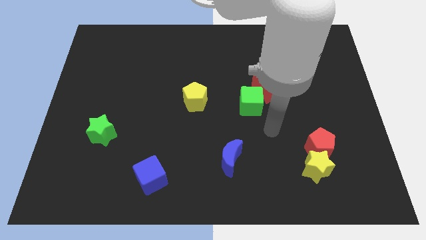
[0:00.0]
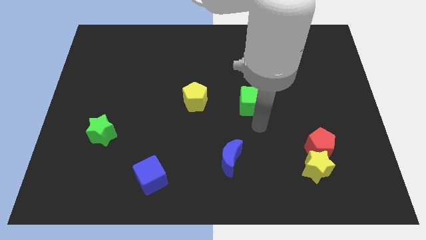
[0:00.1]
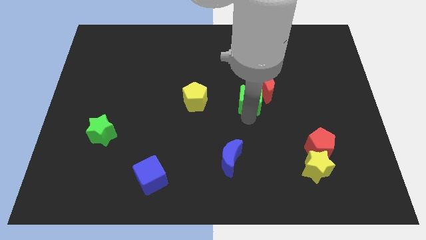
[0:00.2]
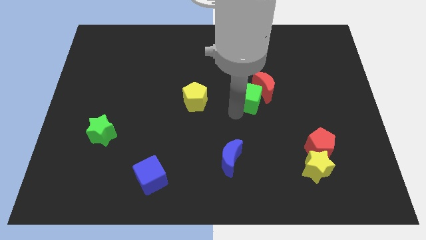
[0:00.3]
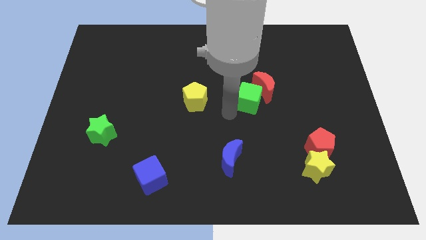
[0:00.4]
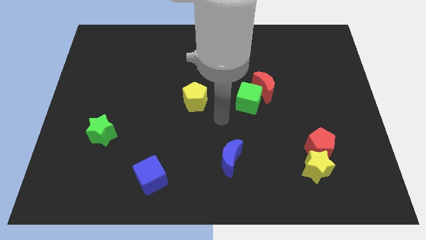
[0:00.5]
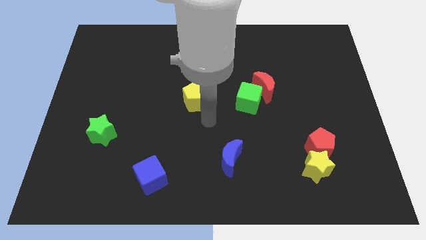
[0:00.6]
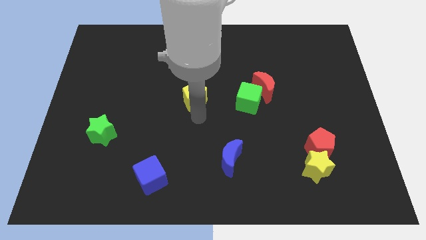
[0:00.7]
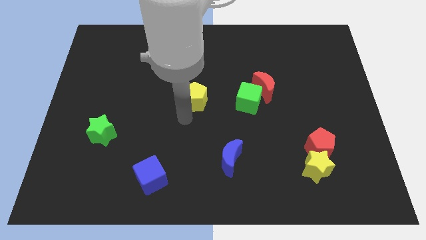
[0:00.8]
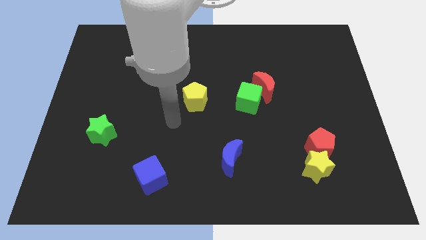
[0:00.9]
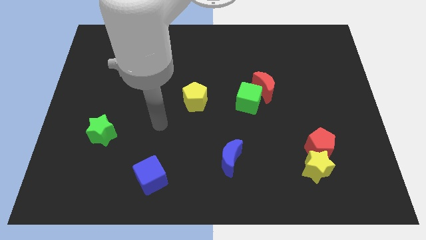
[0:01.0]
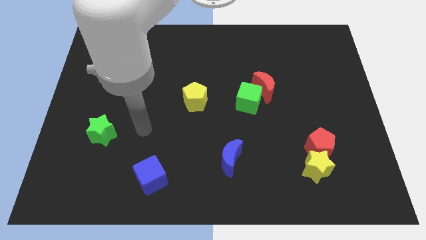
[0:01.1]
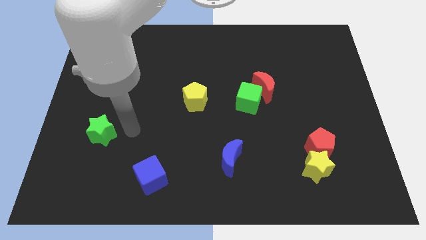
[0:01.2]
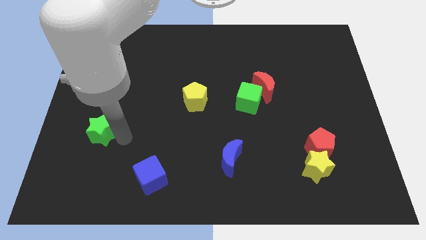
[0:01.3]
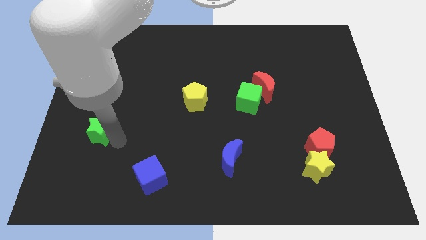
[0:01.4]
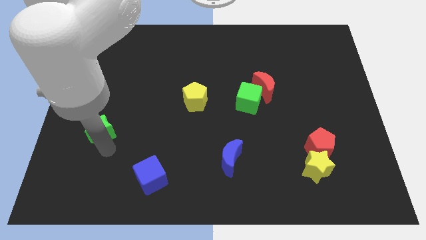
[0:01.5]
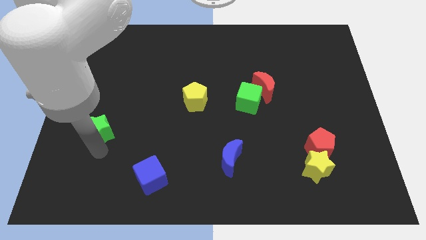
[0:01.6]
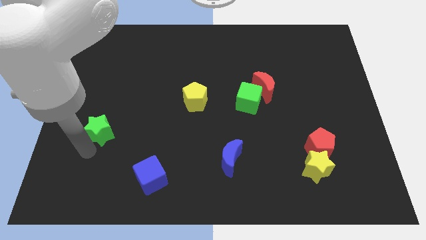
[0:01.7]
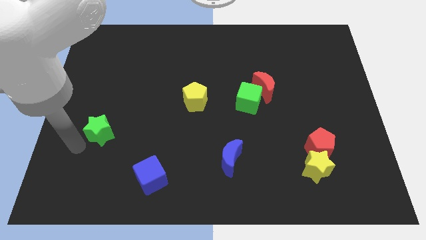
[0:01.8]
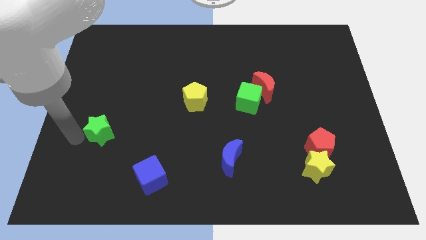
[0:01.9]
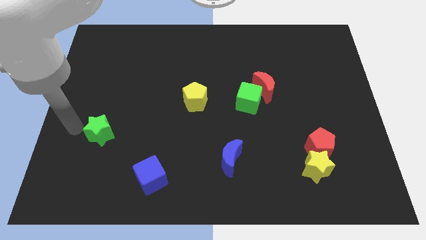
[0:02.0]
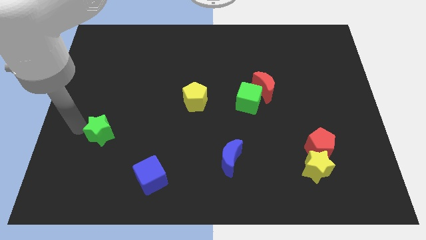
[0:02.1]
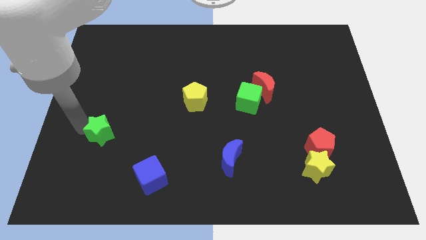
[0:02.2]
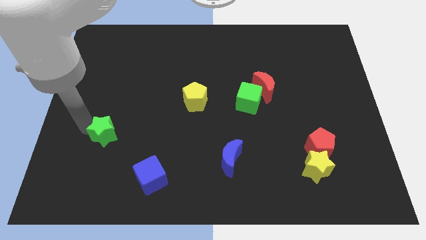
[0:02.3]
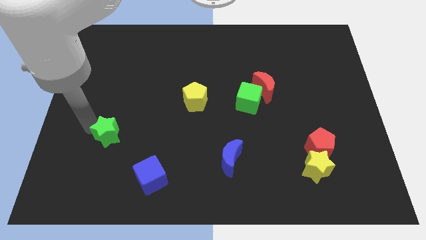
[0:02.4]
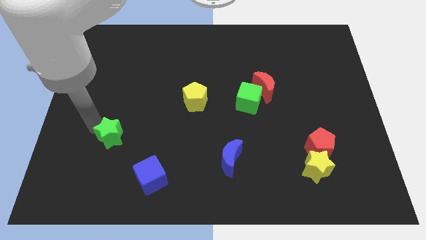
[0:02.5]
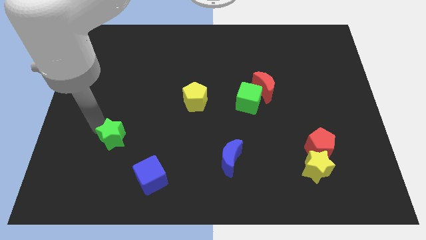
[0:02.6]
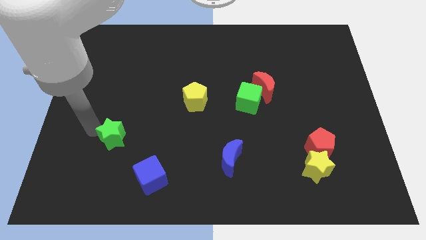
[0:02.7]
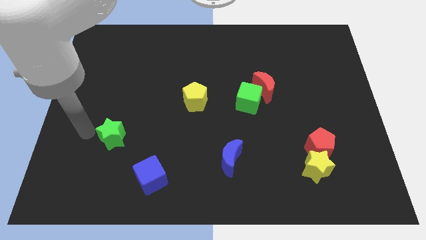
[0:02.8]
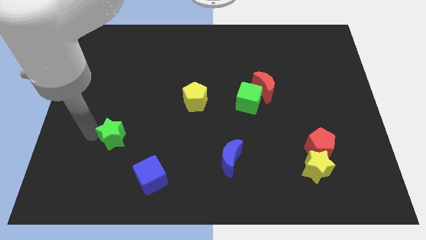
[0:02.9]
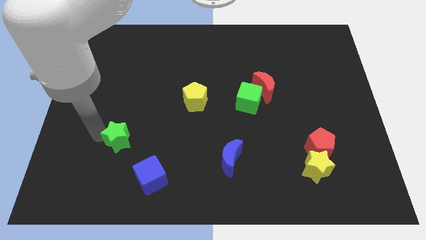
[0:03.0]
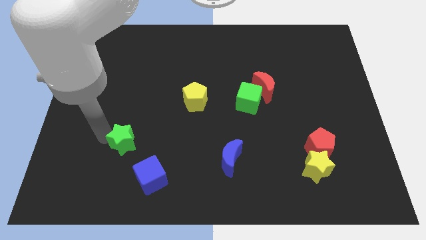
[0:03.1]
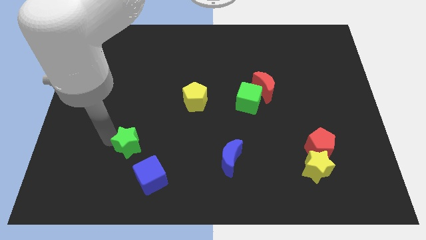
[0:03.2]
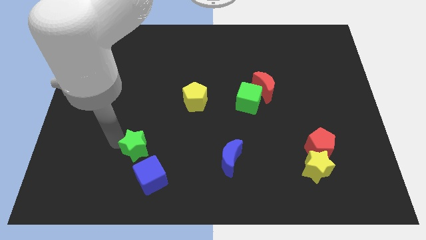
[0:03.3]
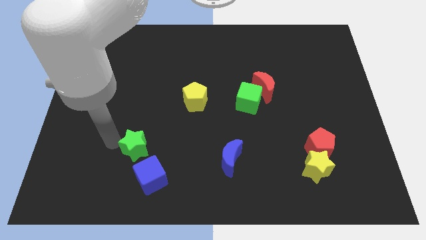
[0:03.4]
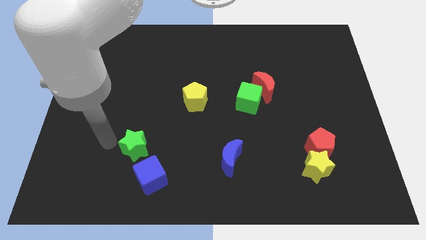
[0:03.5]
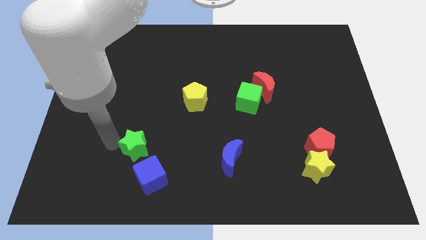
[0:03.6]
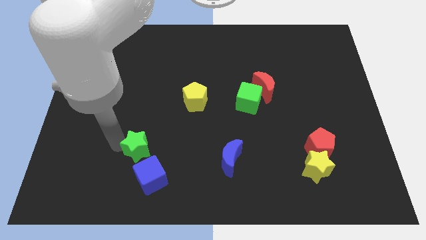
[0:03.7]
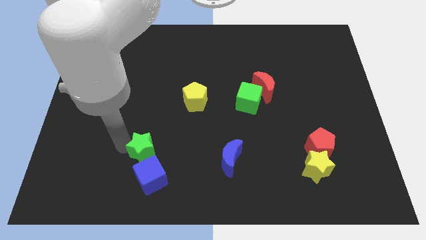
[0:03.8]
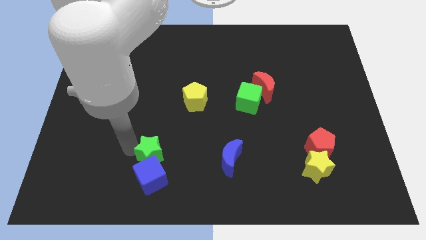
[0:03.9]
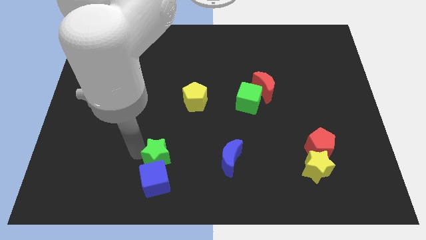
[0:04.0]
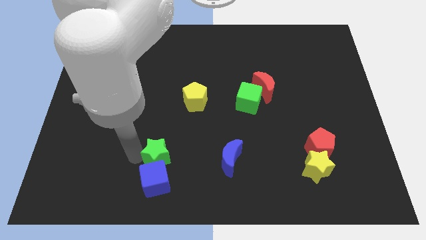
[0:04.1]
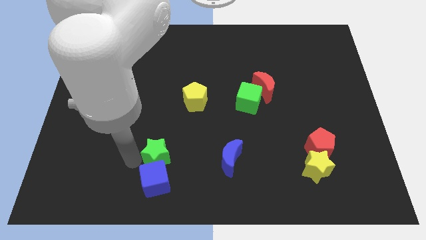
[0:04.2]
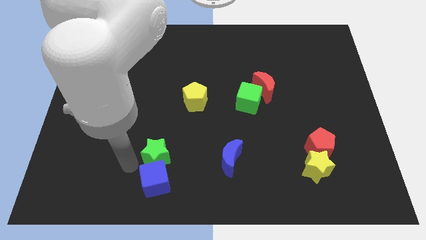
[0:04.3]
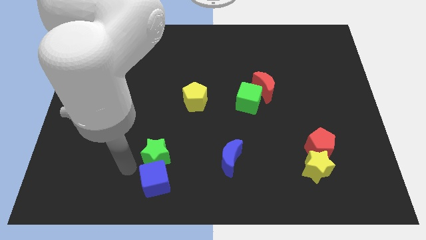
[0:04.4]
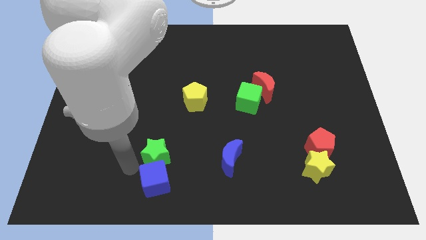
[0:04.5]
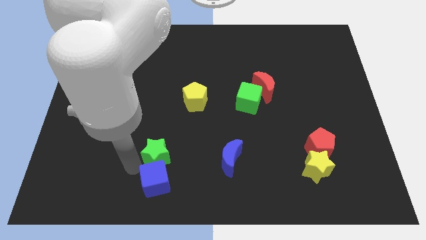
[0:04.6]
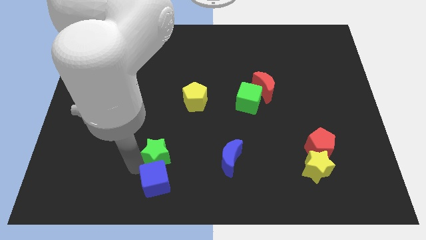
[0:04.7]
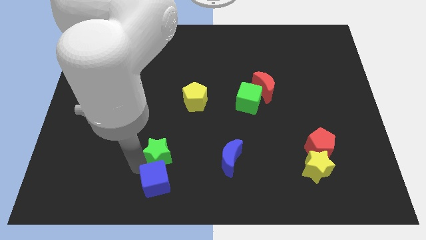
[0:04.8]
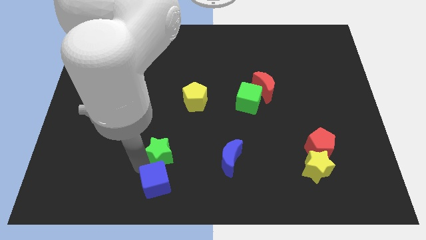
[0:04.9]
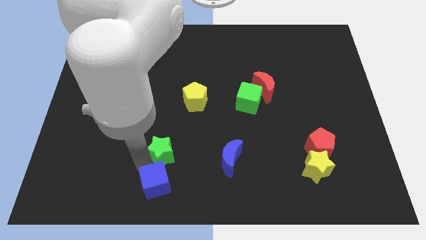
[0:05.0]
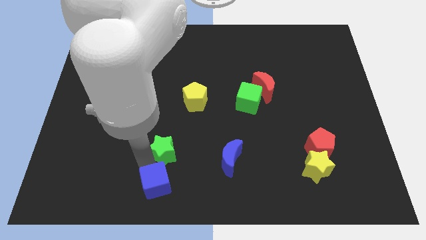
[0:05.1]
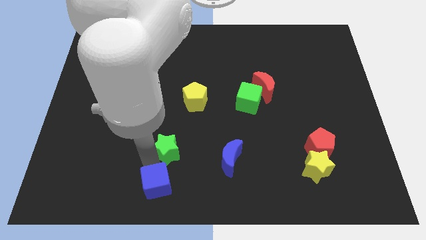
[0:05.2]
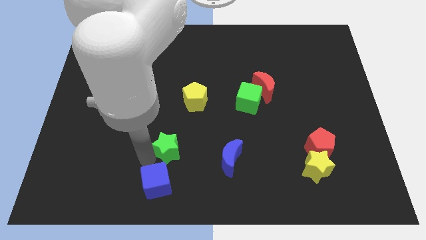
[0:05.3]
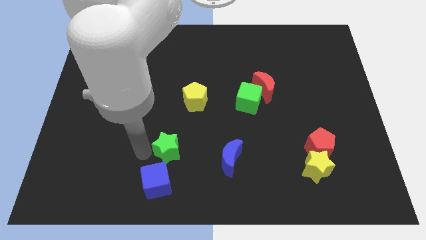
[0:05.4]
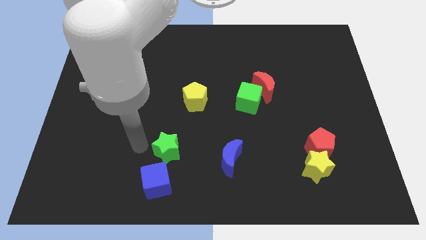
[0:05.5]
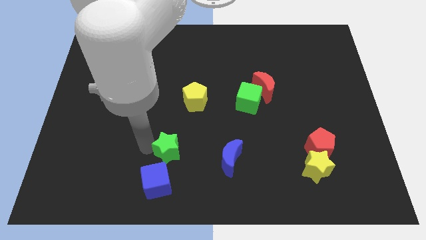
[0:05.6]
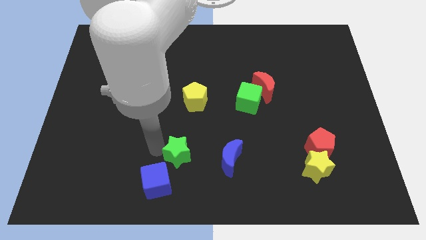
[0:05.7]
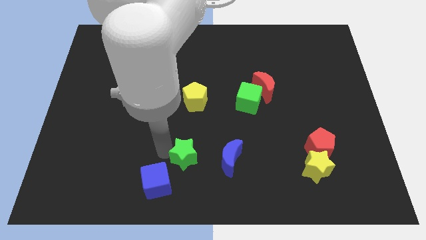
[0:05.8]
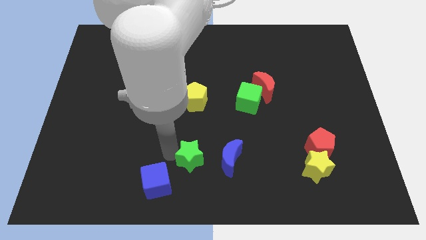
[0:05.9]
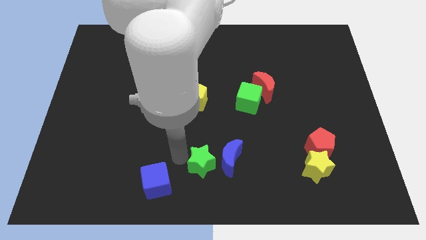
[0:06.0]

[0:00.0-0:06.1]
put the green star to the blue moon

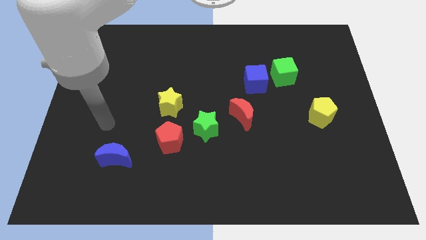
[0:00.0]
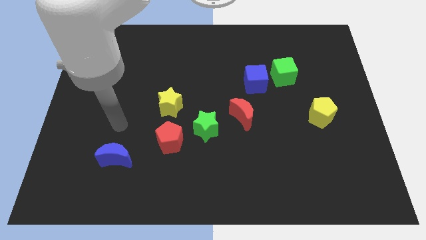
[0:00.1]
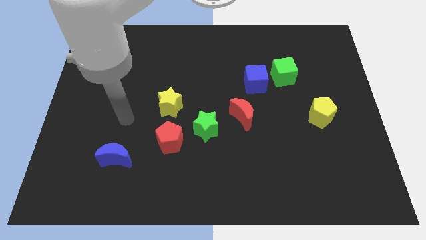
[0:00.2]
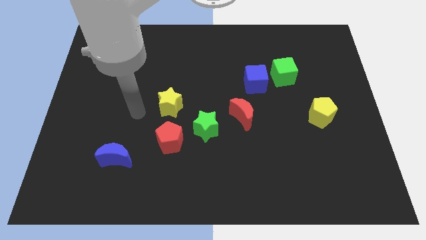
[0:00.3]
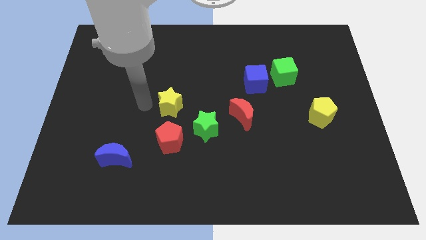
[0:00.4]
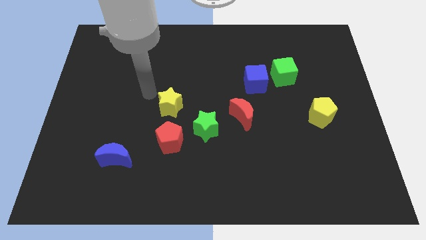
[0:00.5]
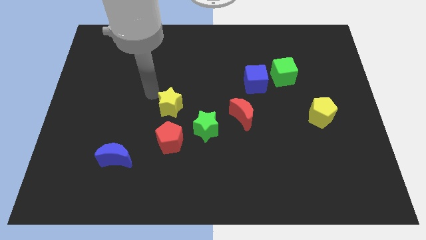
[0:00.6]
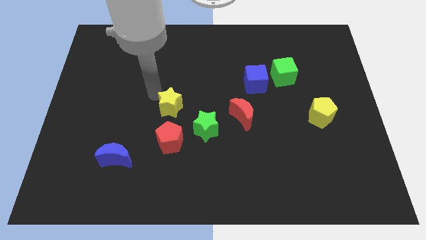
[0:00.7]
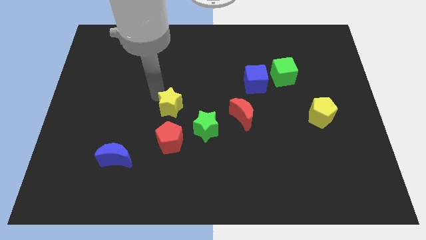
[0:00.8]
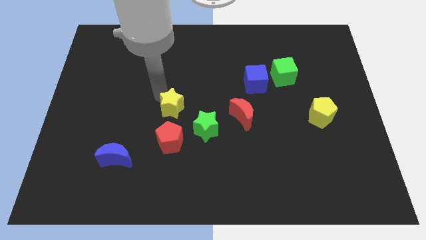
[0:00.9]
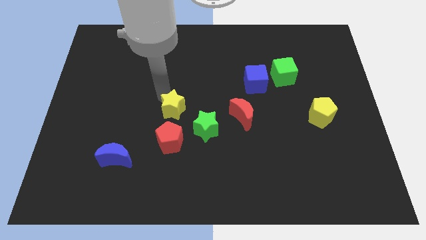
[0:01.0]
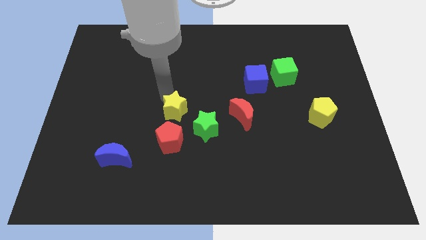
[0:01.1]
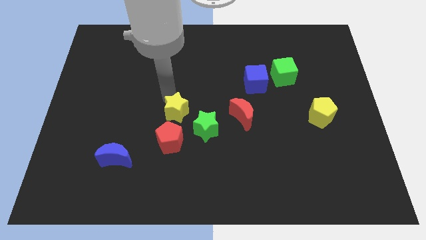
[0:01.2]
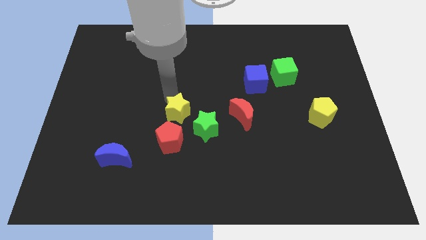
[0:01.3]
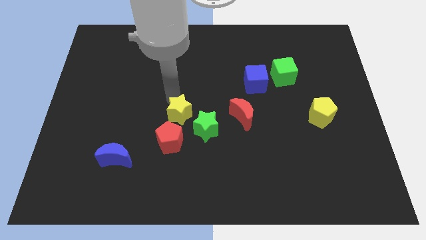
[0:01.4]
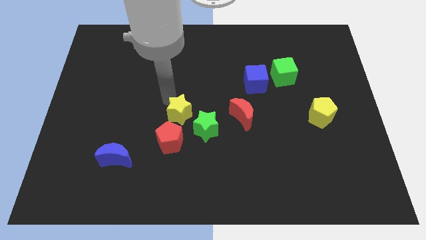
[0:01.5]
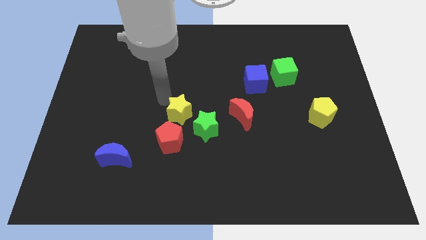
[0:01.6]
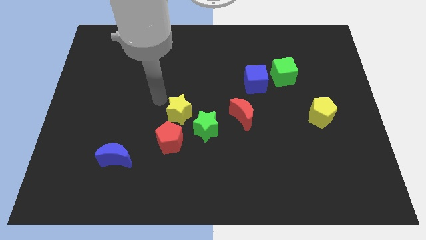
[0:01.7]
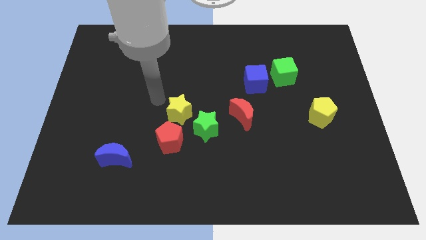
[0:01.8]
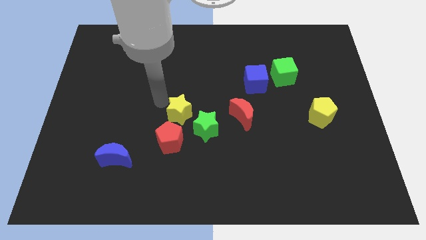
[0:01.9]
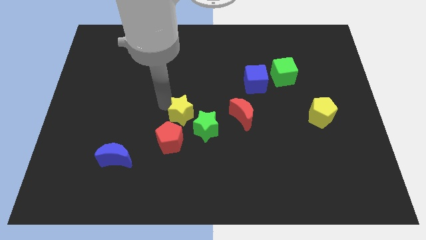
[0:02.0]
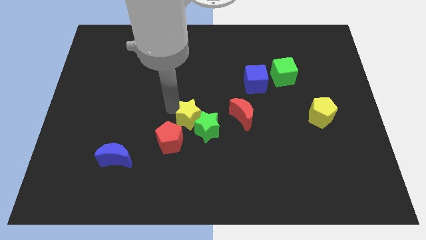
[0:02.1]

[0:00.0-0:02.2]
move the yellow star to the green star
